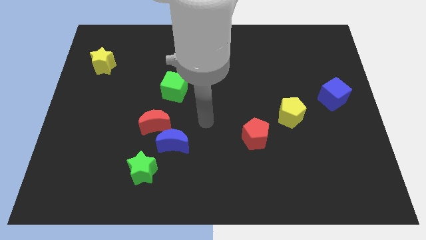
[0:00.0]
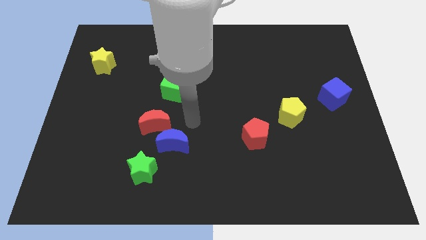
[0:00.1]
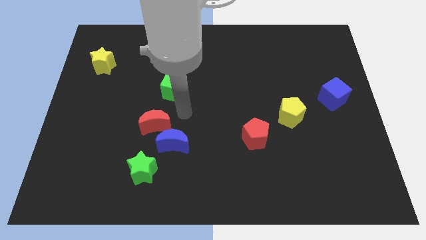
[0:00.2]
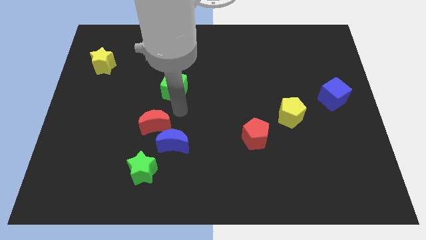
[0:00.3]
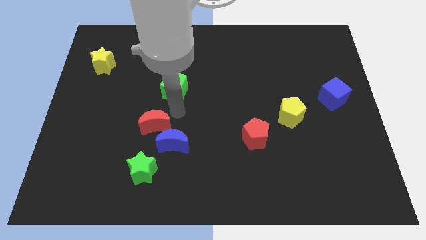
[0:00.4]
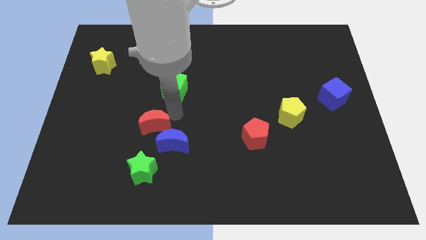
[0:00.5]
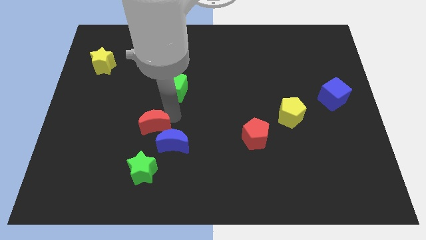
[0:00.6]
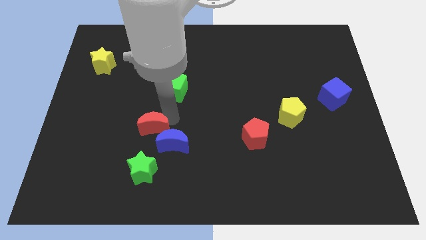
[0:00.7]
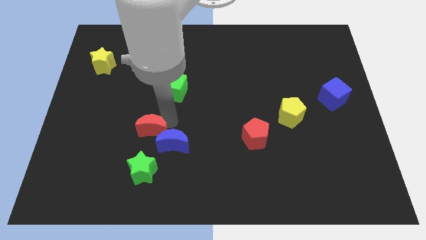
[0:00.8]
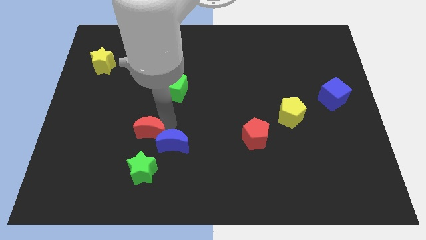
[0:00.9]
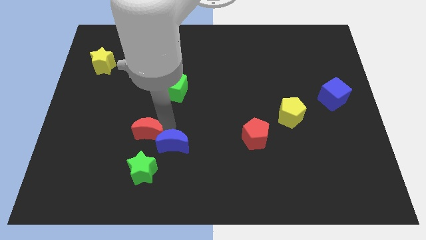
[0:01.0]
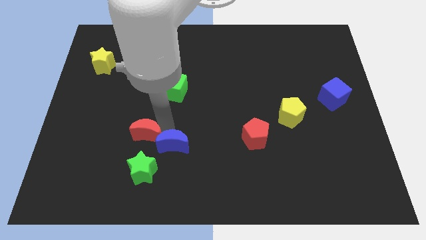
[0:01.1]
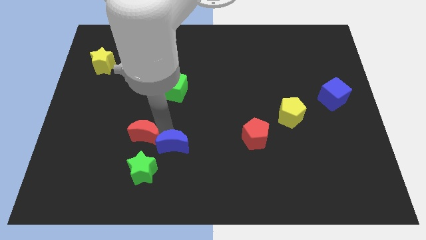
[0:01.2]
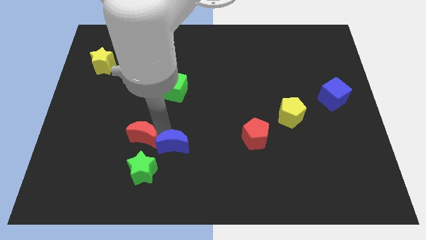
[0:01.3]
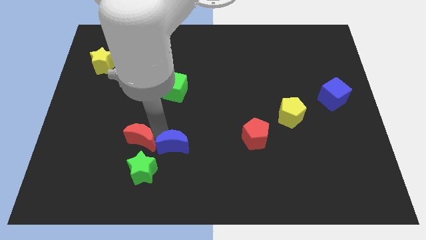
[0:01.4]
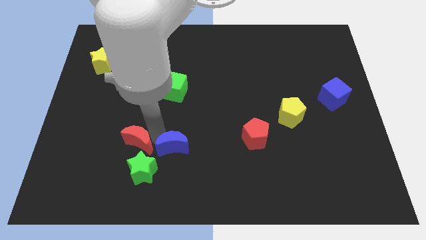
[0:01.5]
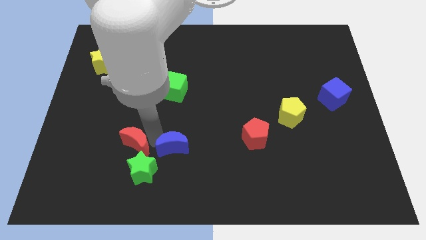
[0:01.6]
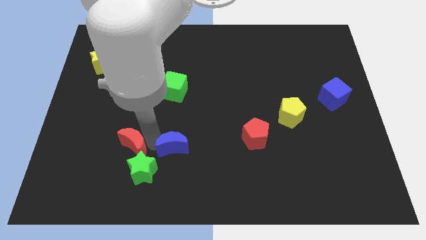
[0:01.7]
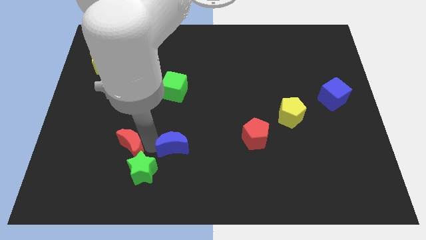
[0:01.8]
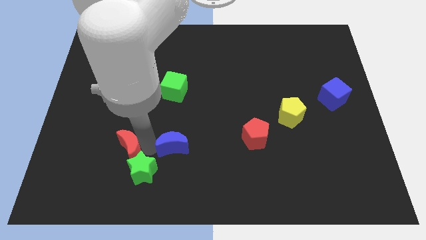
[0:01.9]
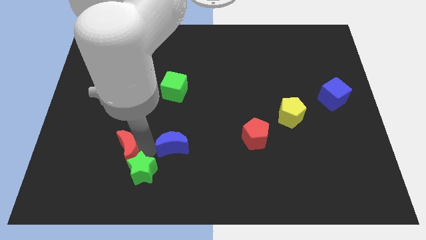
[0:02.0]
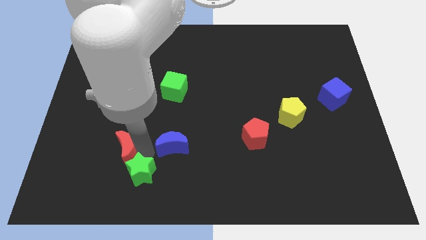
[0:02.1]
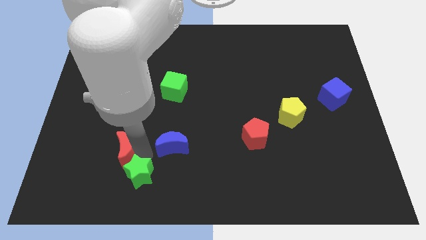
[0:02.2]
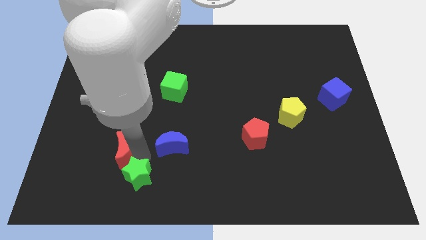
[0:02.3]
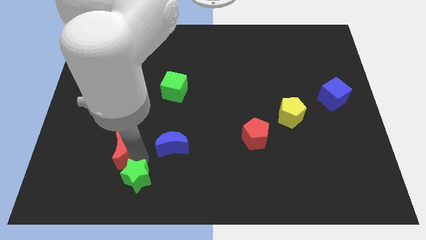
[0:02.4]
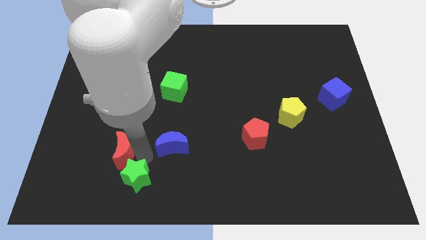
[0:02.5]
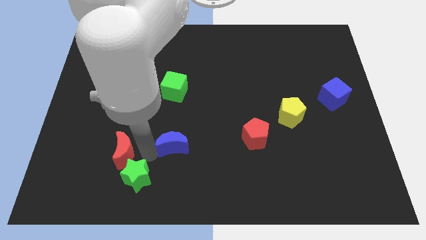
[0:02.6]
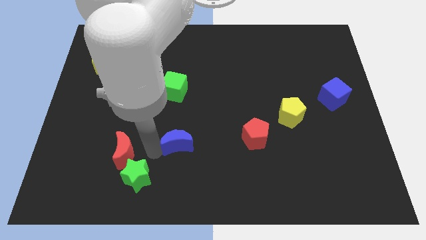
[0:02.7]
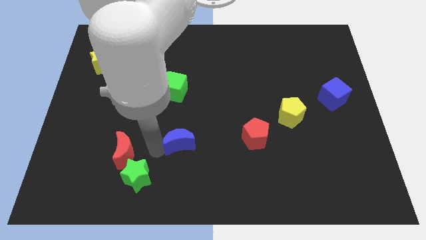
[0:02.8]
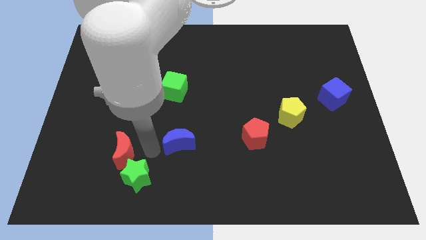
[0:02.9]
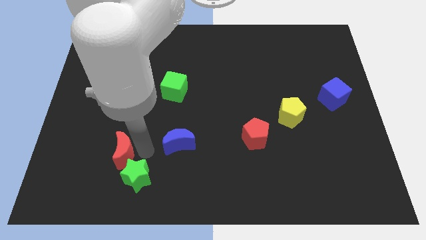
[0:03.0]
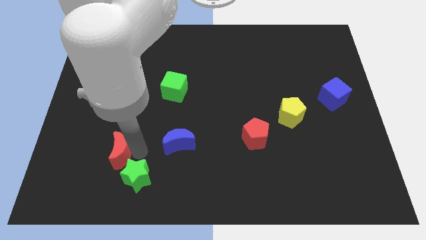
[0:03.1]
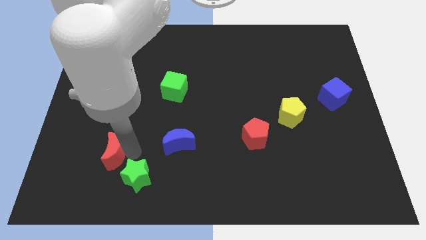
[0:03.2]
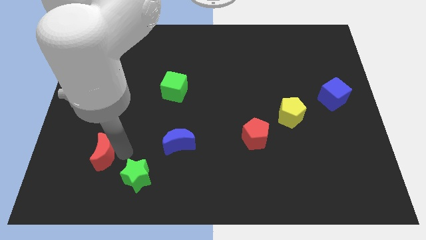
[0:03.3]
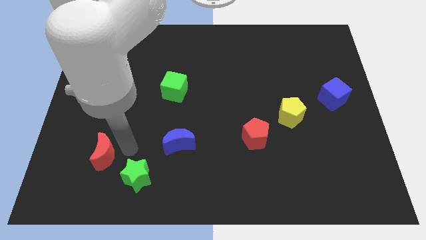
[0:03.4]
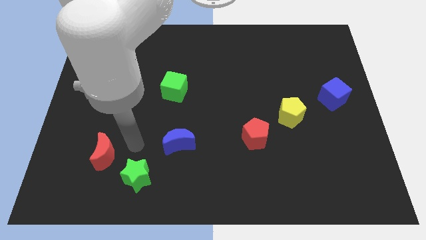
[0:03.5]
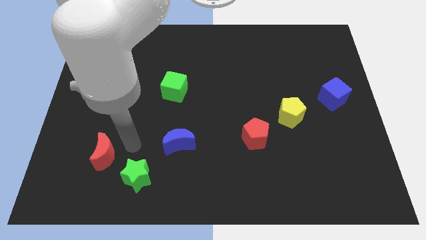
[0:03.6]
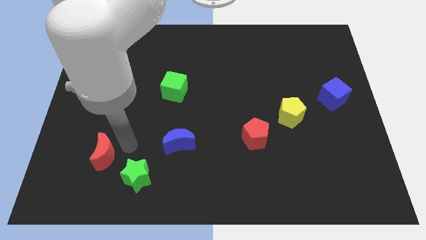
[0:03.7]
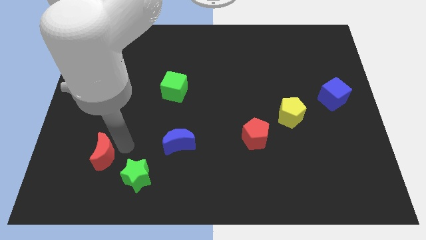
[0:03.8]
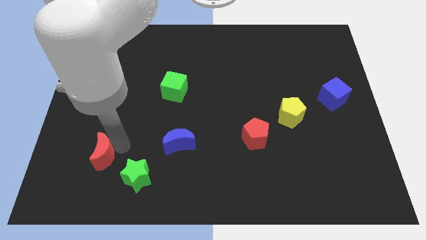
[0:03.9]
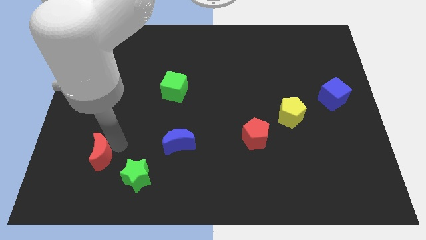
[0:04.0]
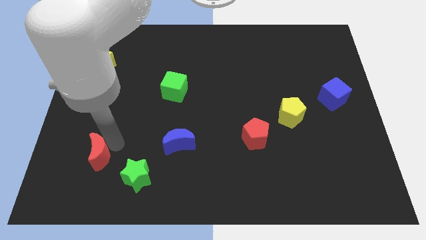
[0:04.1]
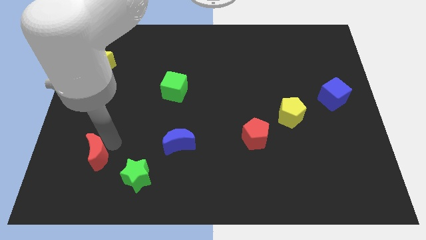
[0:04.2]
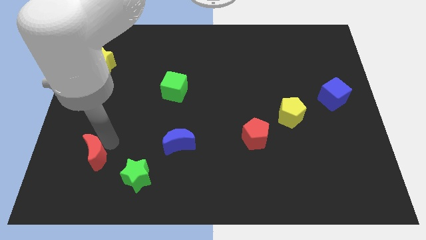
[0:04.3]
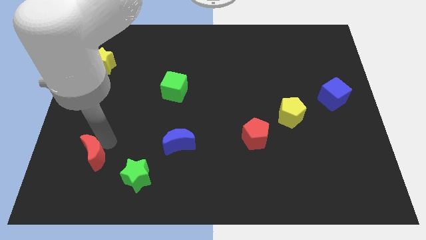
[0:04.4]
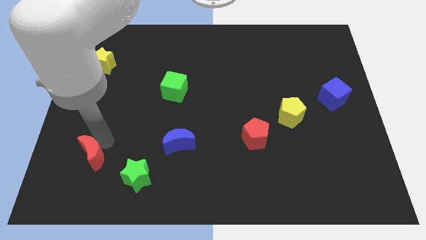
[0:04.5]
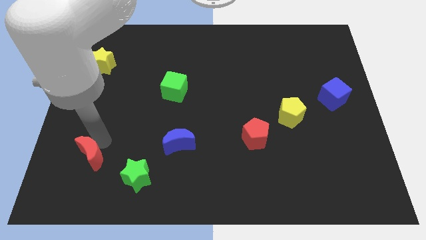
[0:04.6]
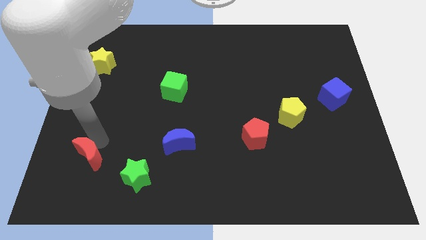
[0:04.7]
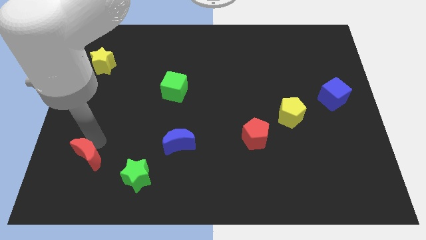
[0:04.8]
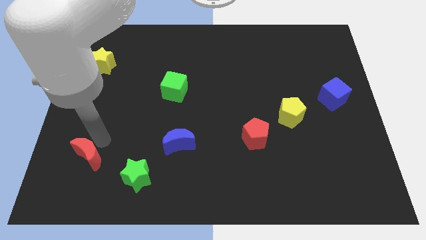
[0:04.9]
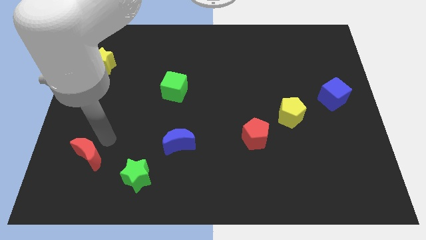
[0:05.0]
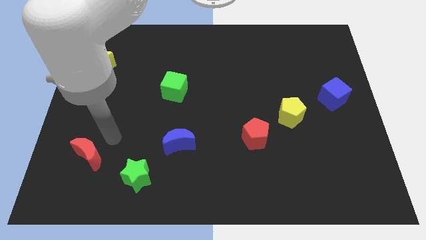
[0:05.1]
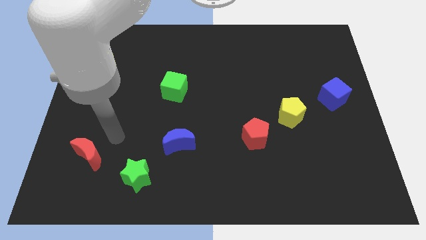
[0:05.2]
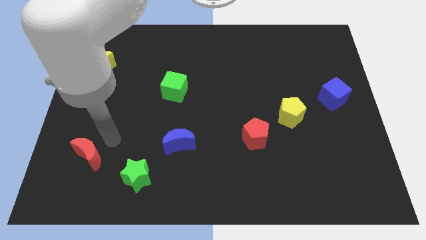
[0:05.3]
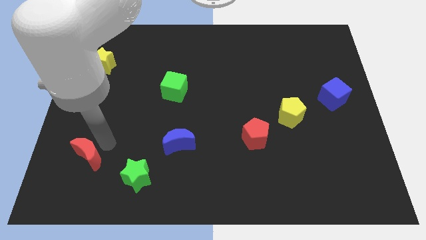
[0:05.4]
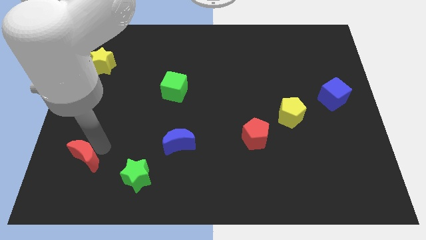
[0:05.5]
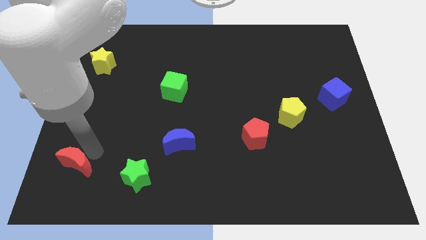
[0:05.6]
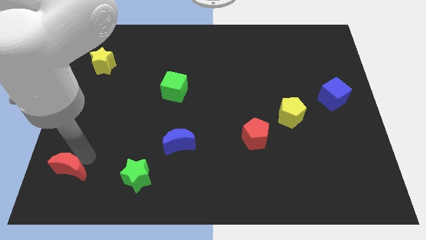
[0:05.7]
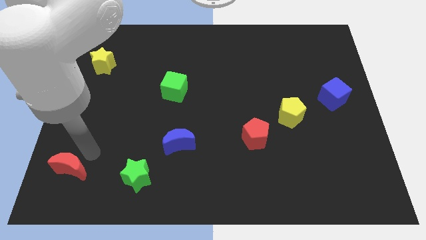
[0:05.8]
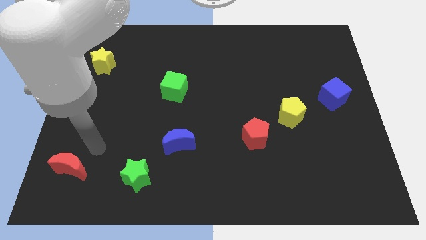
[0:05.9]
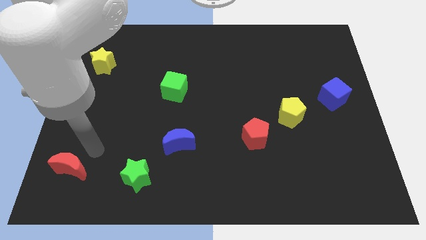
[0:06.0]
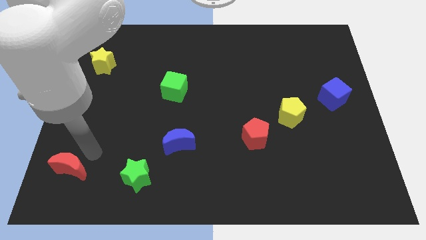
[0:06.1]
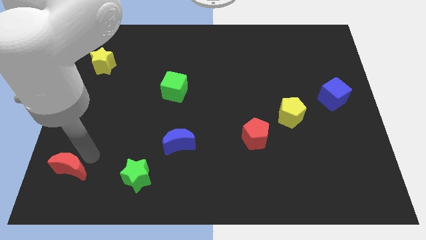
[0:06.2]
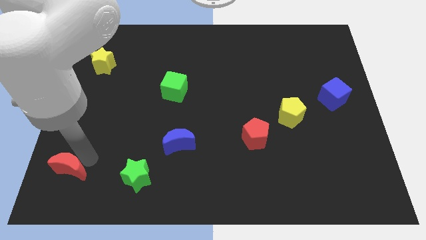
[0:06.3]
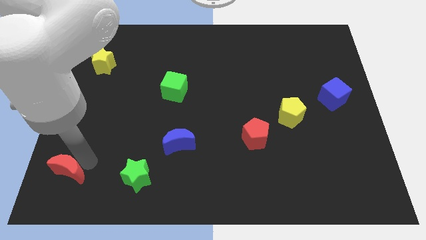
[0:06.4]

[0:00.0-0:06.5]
slide the red moon to the lower left corner

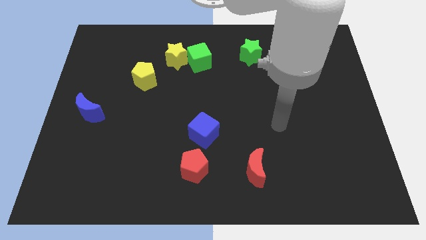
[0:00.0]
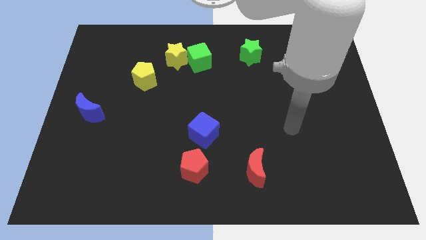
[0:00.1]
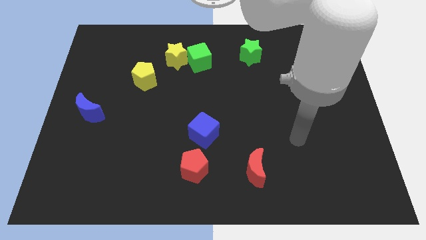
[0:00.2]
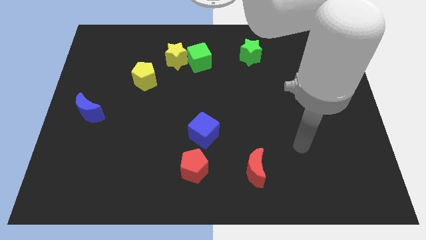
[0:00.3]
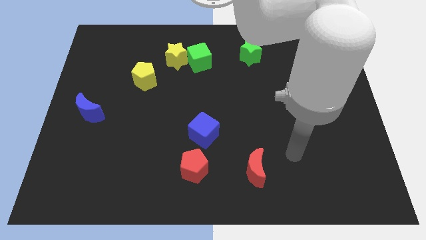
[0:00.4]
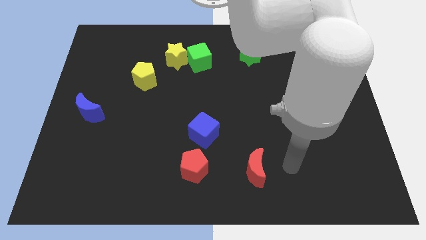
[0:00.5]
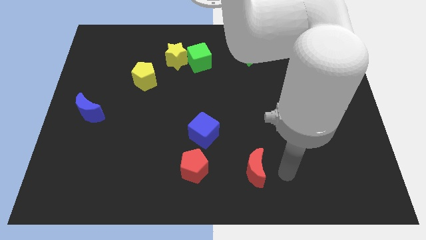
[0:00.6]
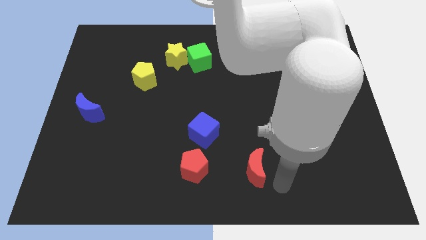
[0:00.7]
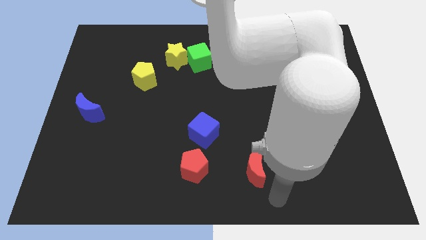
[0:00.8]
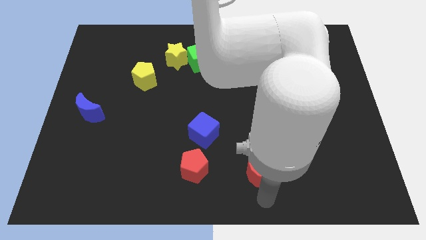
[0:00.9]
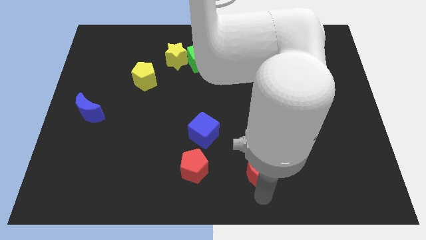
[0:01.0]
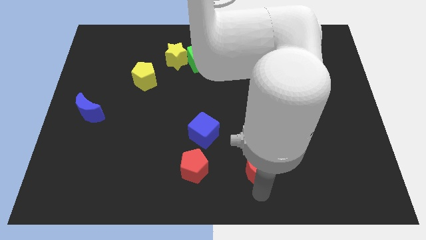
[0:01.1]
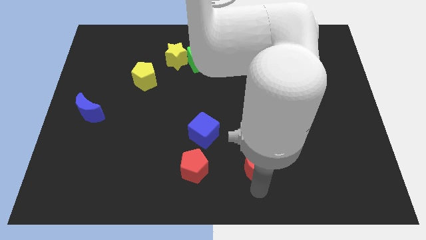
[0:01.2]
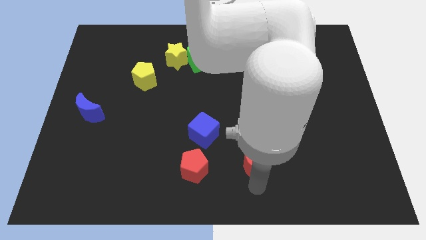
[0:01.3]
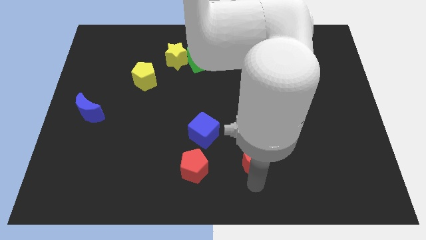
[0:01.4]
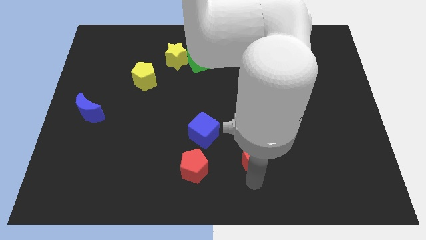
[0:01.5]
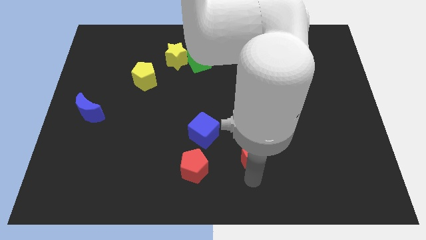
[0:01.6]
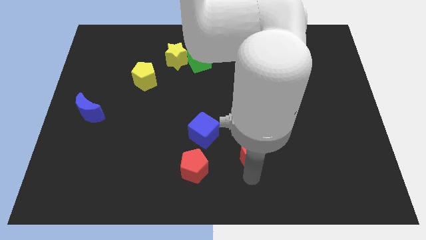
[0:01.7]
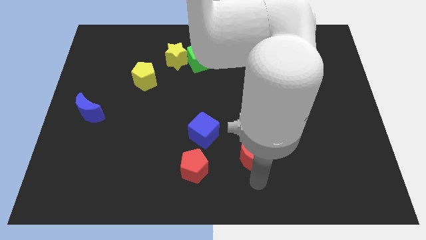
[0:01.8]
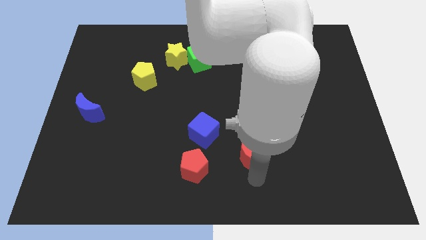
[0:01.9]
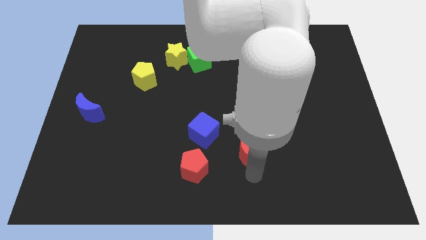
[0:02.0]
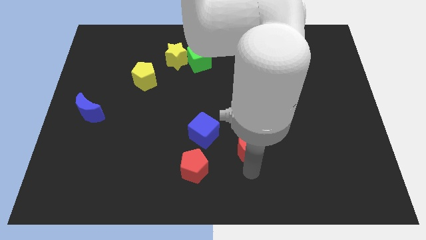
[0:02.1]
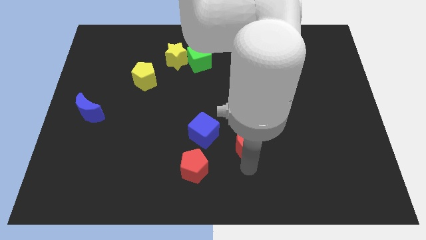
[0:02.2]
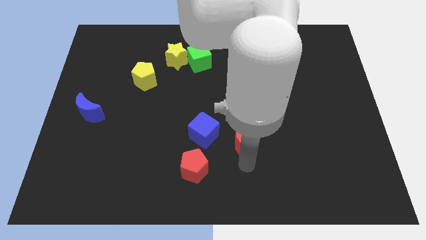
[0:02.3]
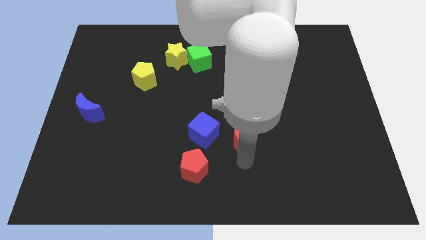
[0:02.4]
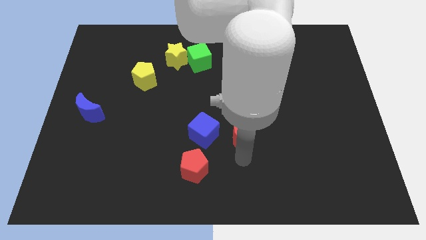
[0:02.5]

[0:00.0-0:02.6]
slide the red moon to the center
